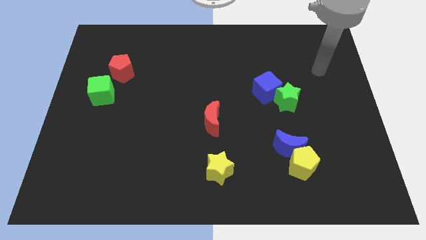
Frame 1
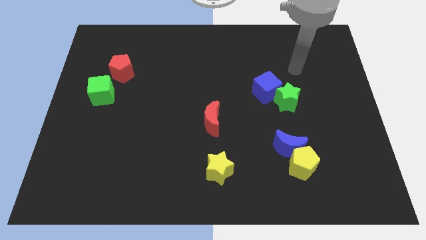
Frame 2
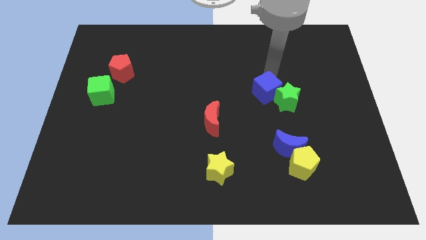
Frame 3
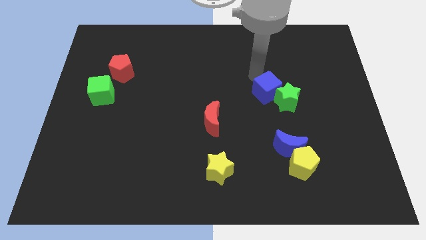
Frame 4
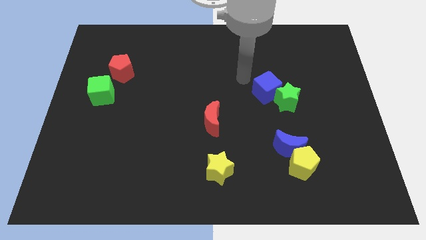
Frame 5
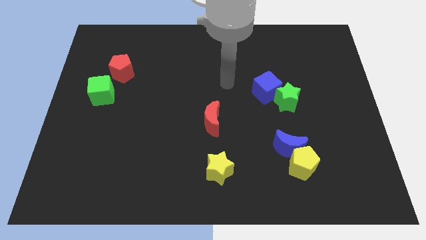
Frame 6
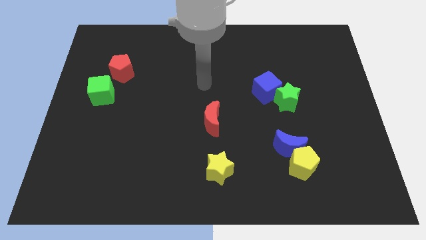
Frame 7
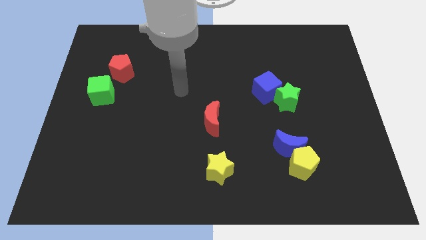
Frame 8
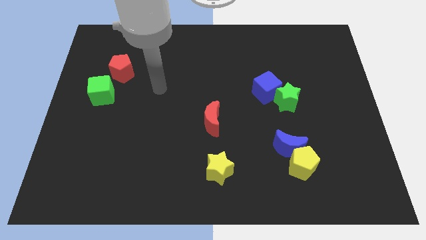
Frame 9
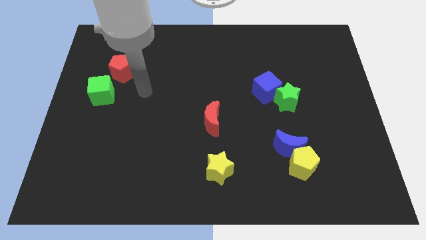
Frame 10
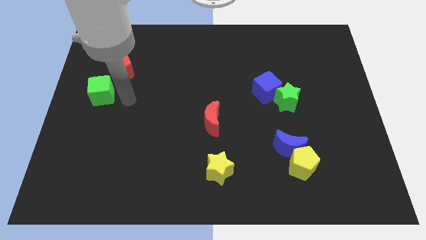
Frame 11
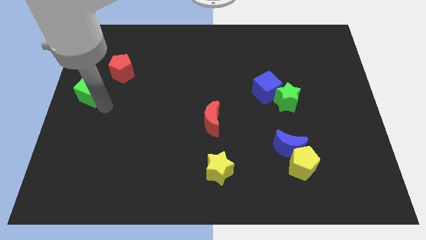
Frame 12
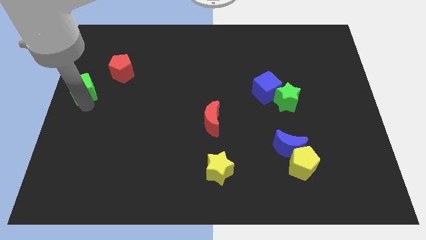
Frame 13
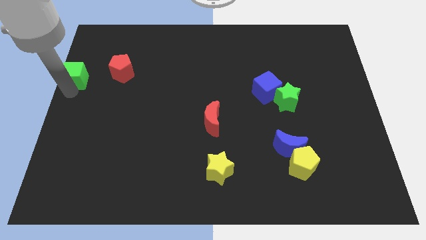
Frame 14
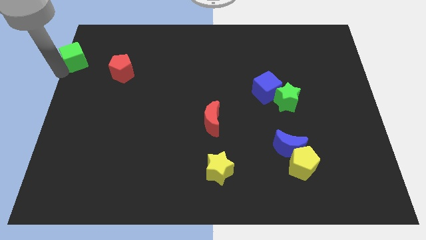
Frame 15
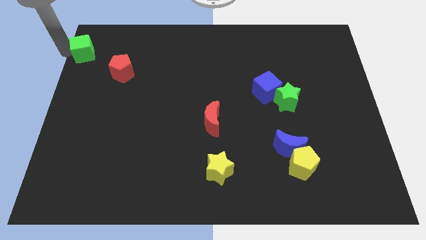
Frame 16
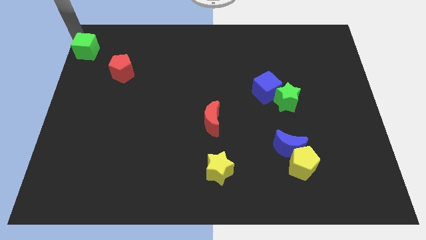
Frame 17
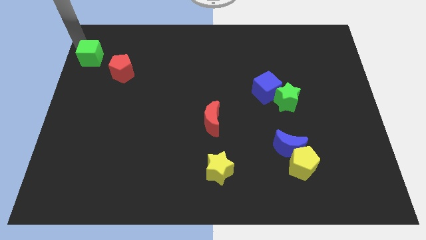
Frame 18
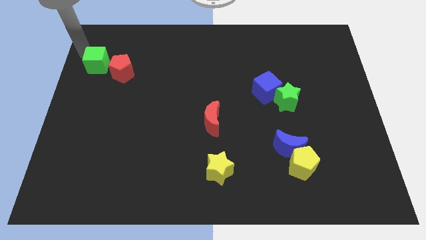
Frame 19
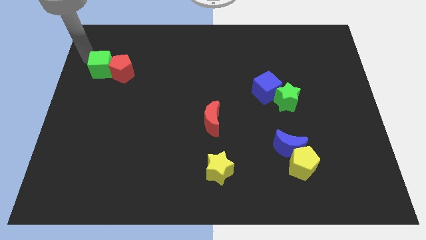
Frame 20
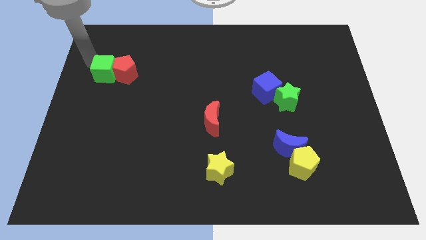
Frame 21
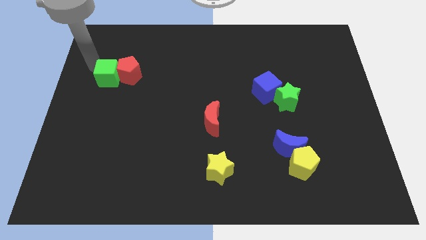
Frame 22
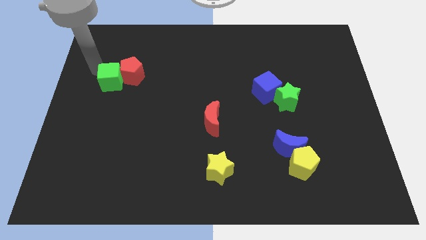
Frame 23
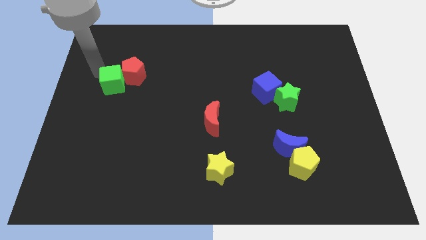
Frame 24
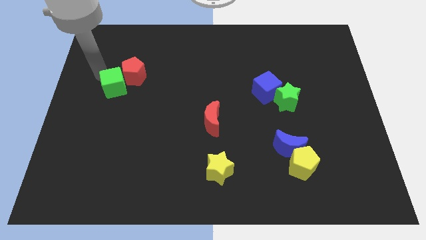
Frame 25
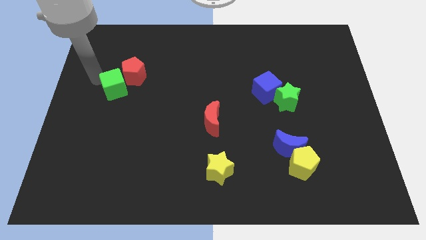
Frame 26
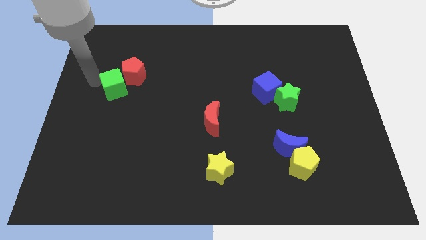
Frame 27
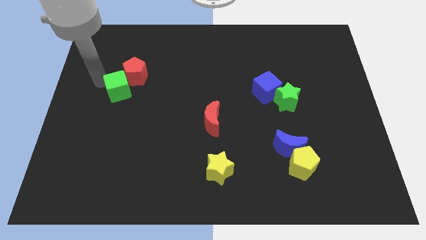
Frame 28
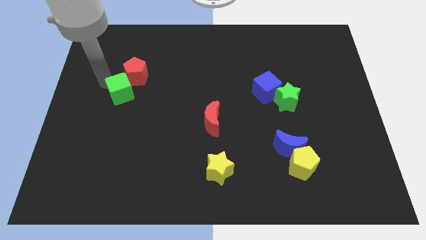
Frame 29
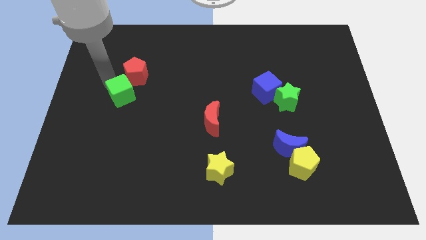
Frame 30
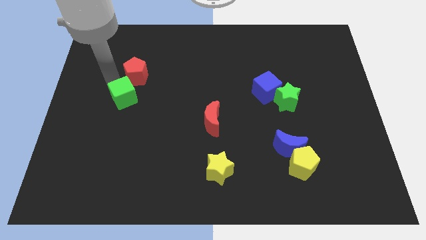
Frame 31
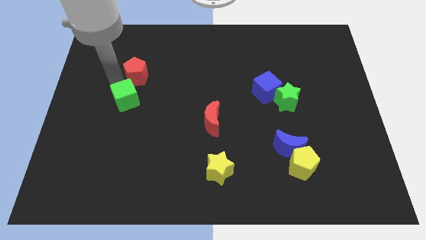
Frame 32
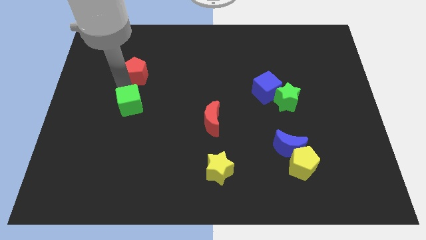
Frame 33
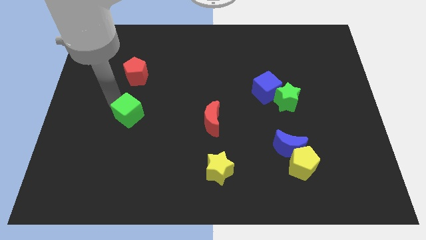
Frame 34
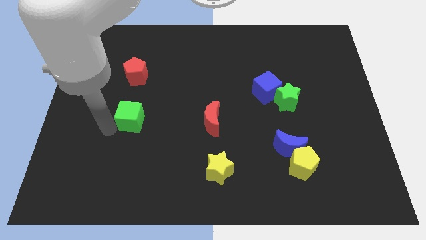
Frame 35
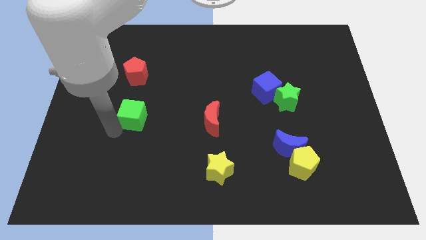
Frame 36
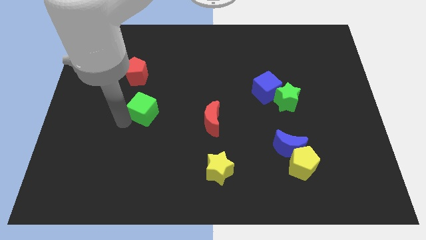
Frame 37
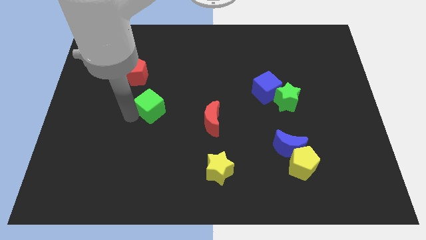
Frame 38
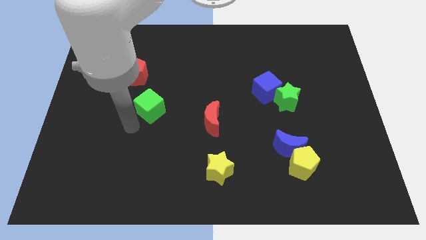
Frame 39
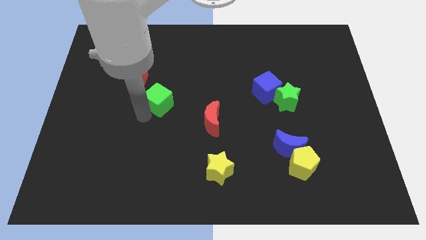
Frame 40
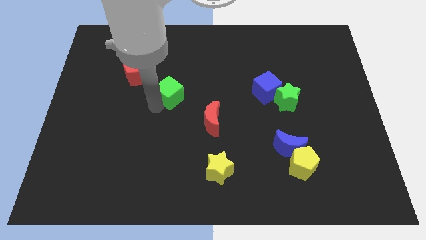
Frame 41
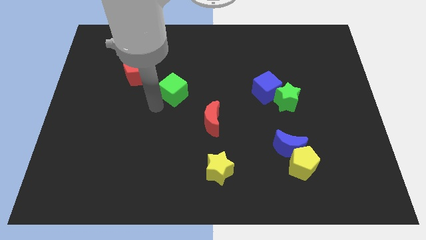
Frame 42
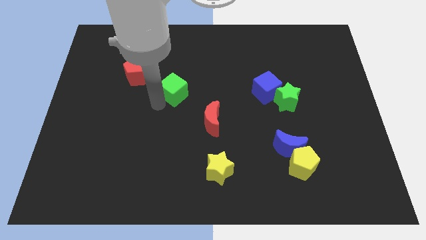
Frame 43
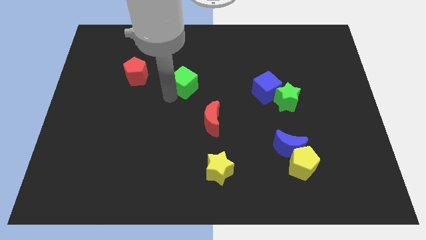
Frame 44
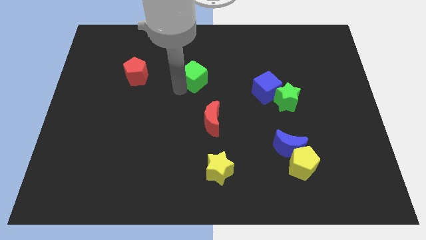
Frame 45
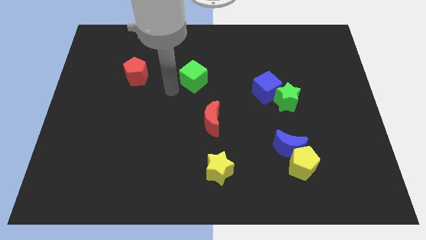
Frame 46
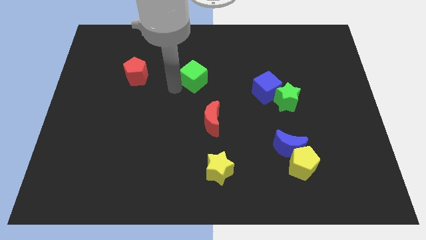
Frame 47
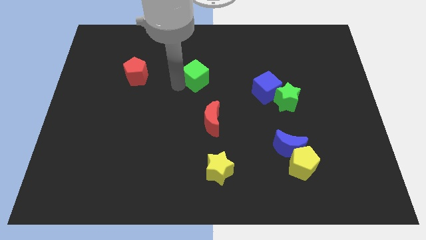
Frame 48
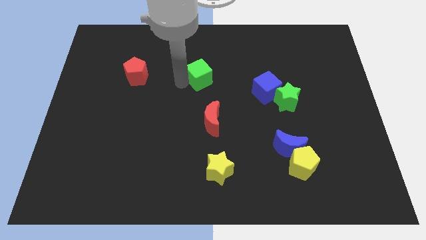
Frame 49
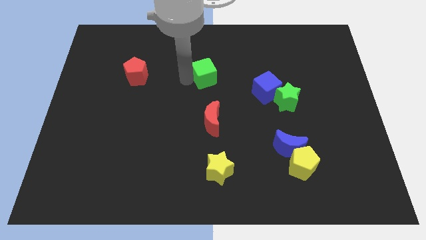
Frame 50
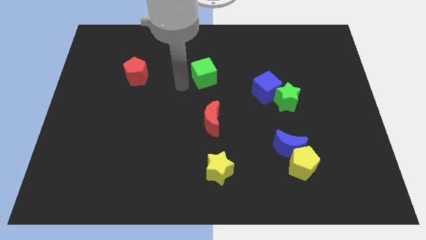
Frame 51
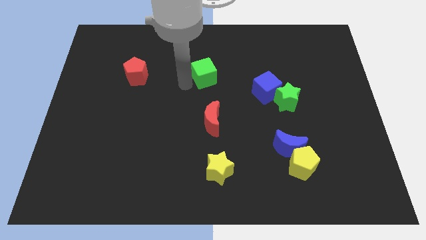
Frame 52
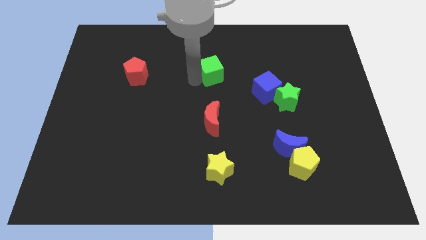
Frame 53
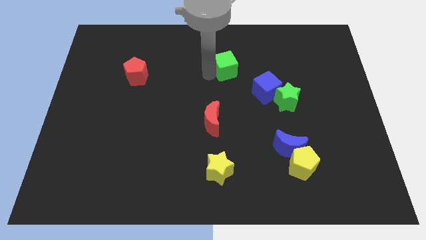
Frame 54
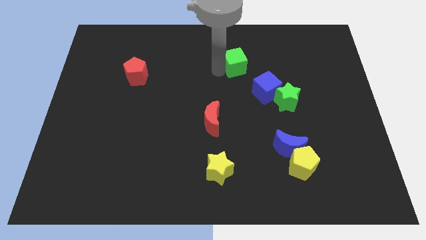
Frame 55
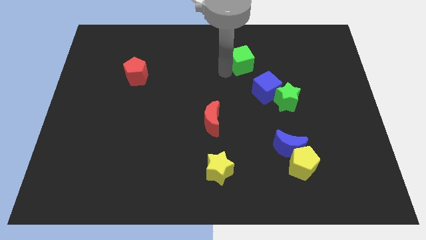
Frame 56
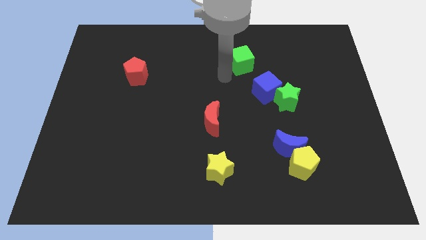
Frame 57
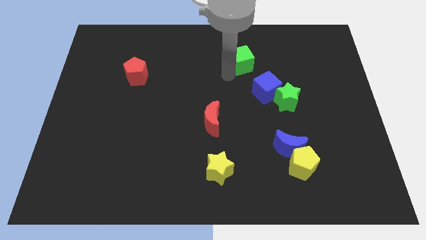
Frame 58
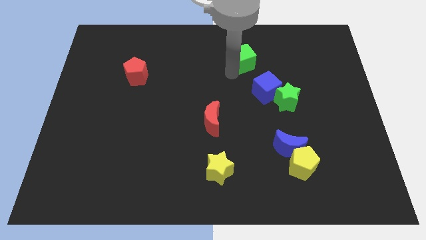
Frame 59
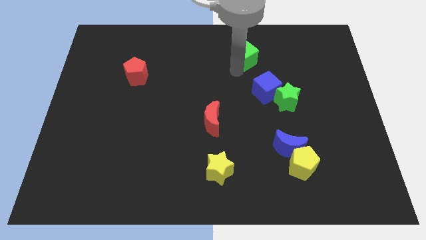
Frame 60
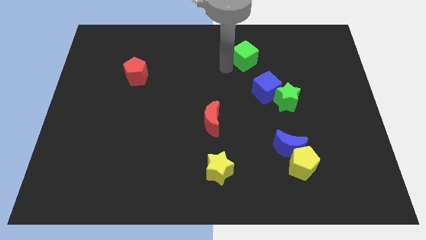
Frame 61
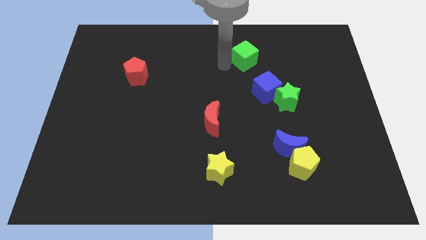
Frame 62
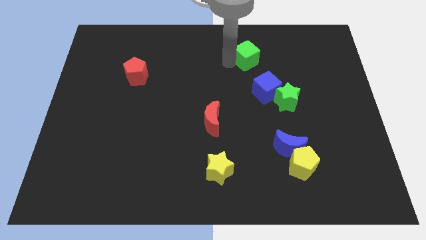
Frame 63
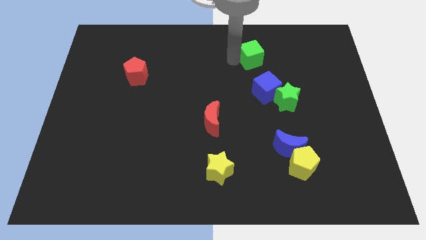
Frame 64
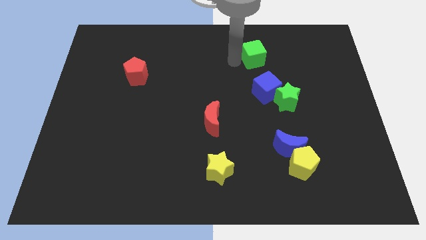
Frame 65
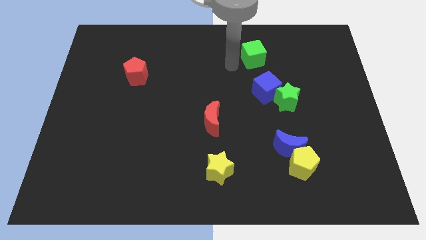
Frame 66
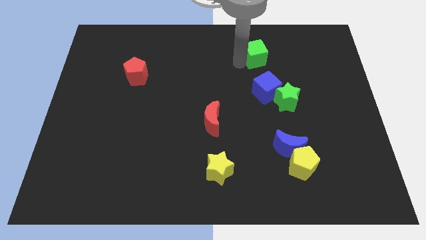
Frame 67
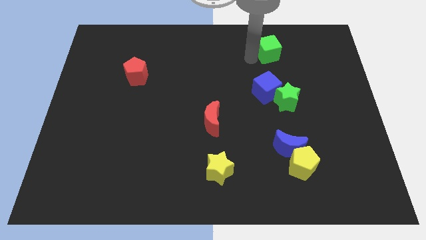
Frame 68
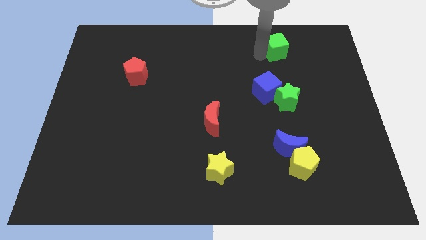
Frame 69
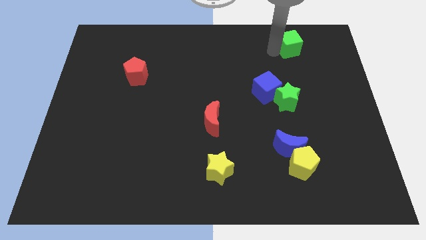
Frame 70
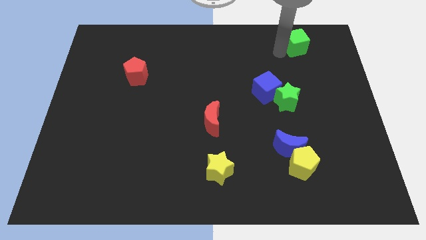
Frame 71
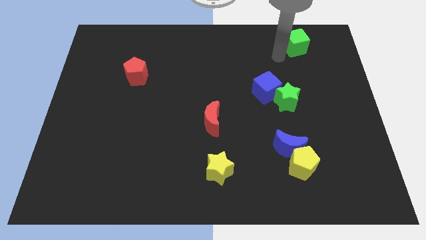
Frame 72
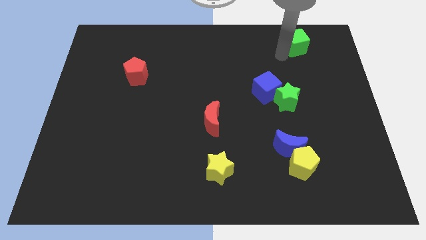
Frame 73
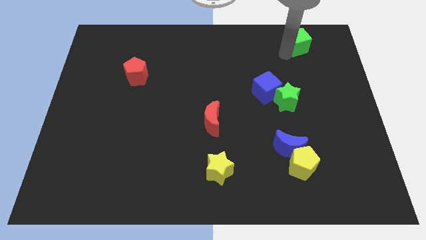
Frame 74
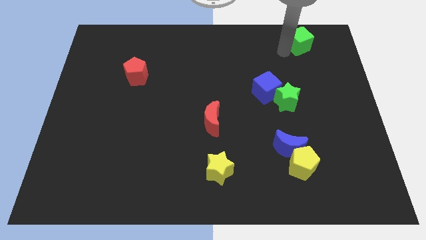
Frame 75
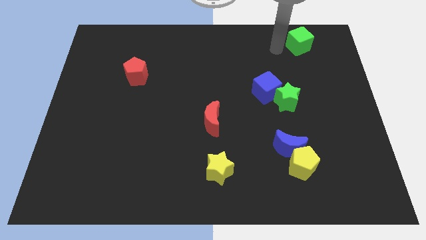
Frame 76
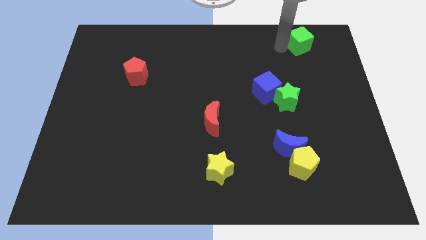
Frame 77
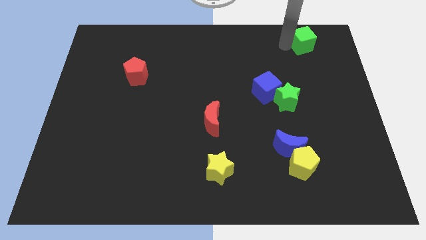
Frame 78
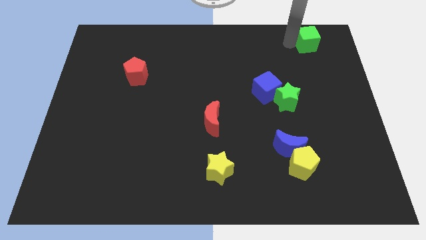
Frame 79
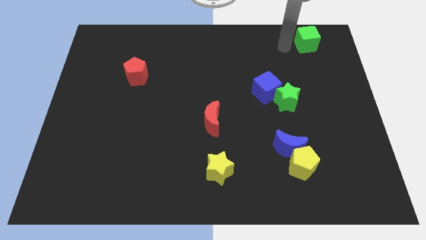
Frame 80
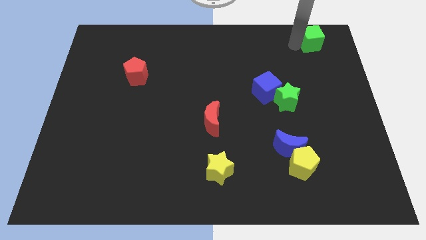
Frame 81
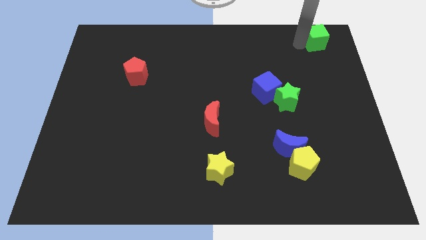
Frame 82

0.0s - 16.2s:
put the green cube to the top right corner
